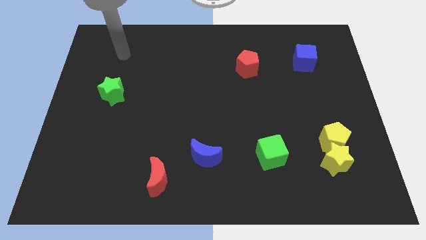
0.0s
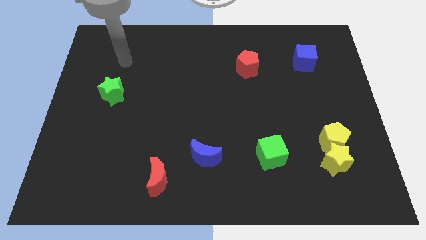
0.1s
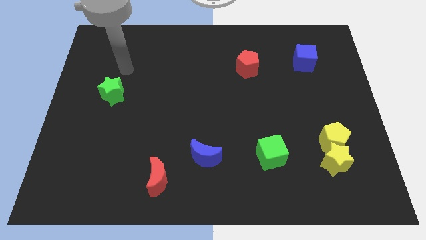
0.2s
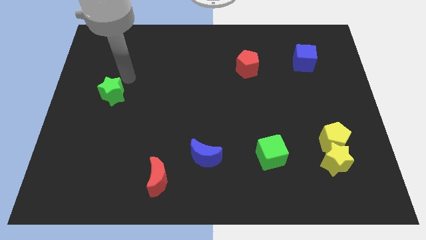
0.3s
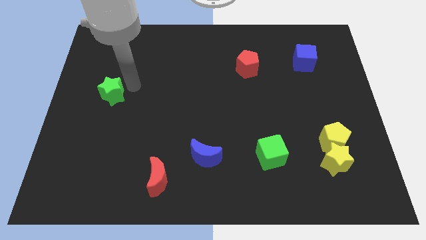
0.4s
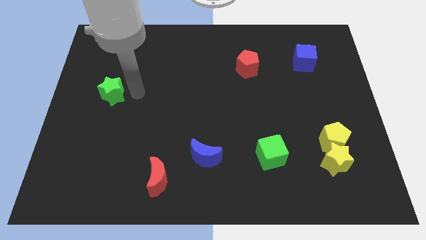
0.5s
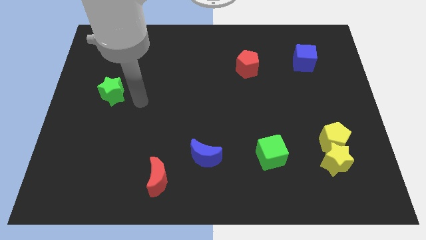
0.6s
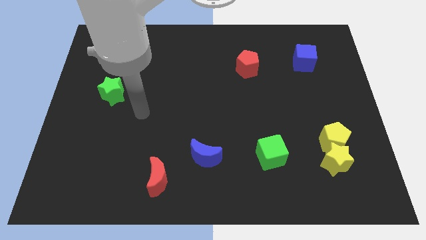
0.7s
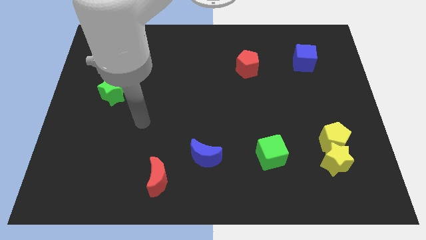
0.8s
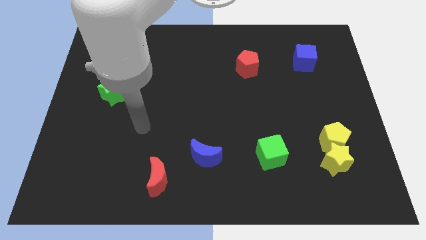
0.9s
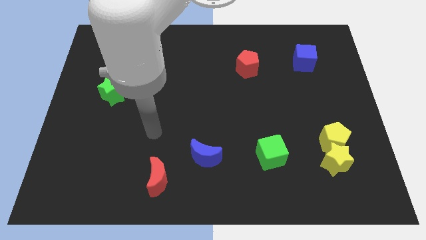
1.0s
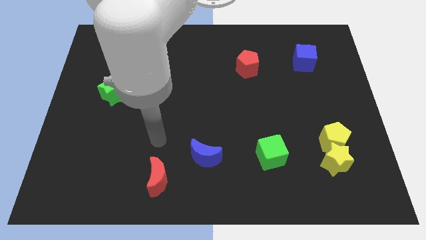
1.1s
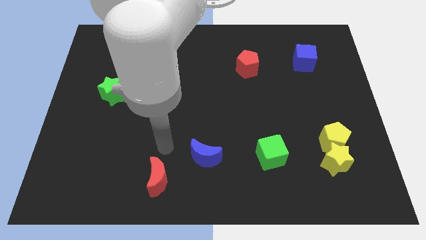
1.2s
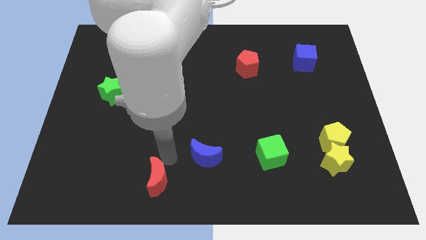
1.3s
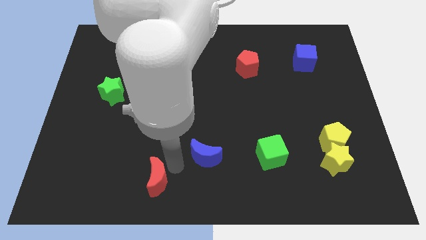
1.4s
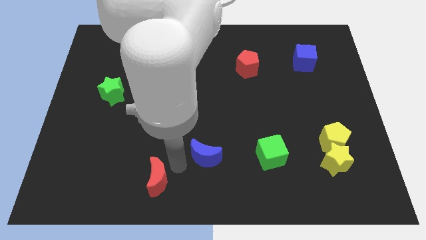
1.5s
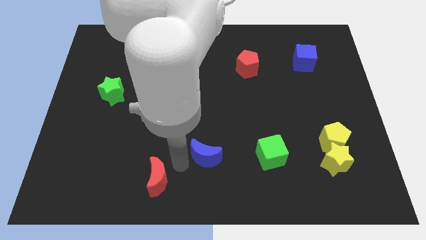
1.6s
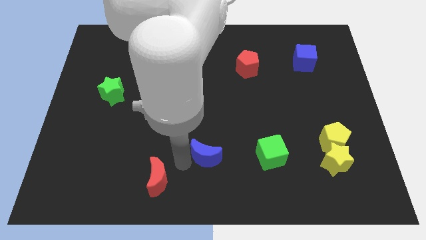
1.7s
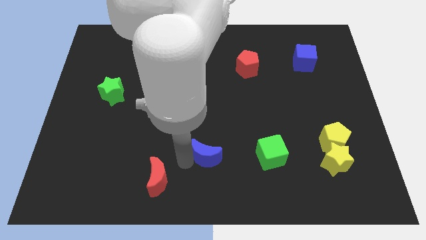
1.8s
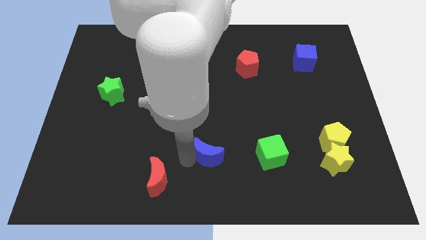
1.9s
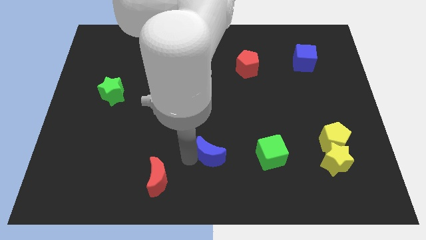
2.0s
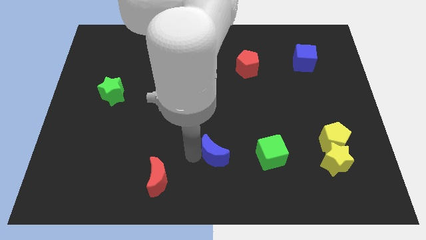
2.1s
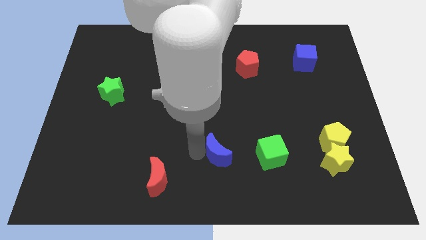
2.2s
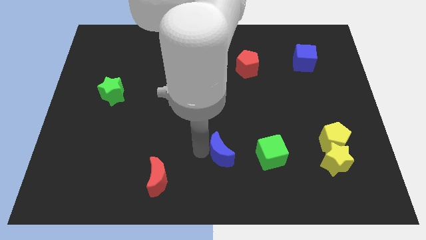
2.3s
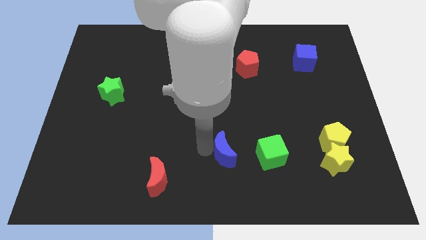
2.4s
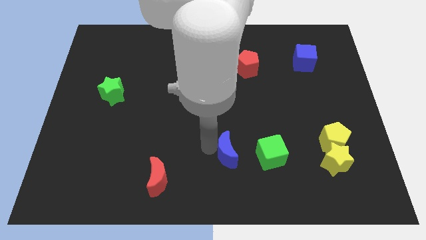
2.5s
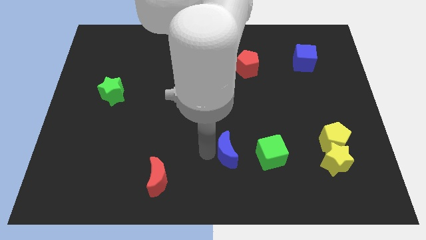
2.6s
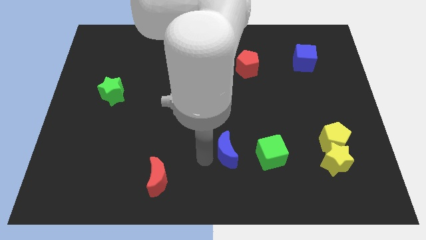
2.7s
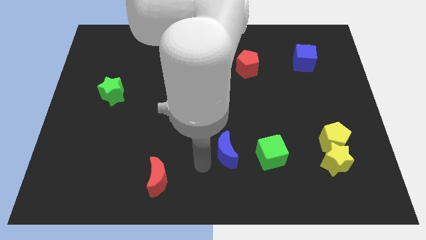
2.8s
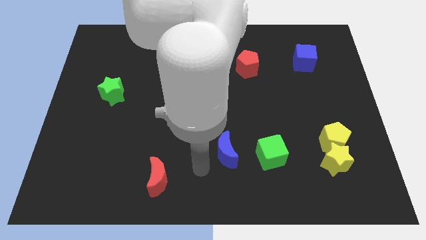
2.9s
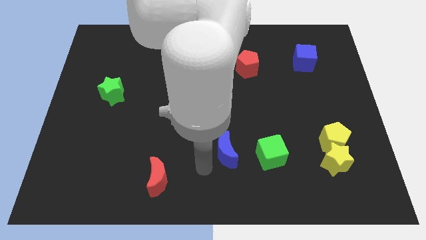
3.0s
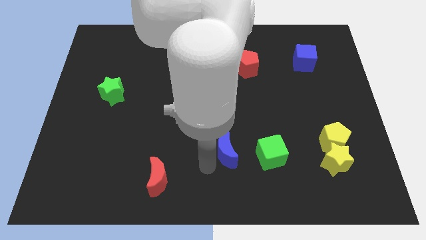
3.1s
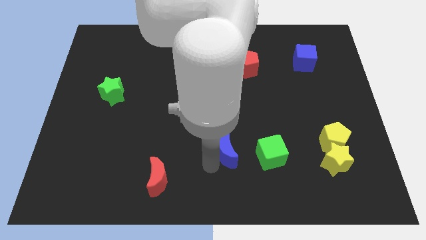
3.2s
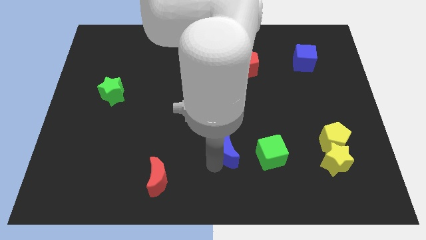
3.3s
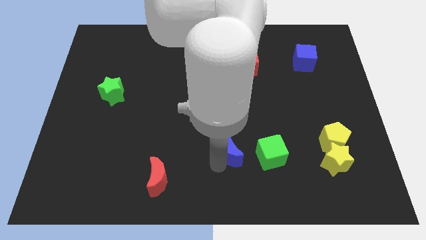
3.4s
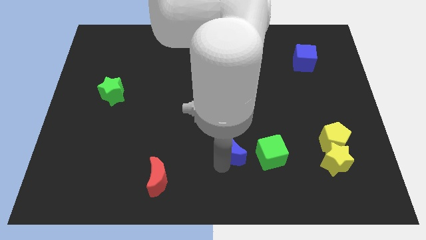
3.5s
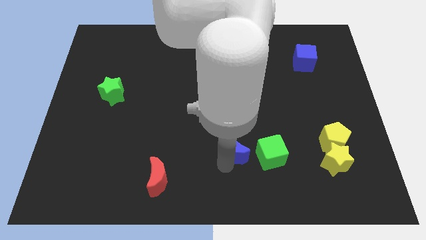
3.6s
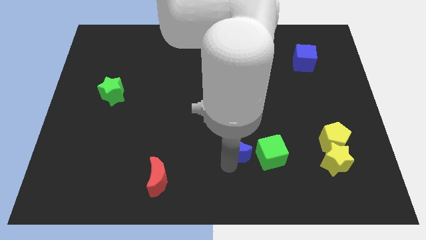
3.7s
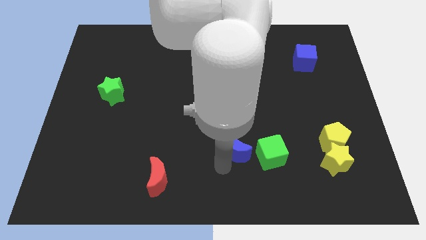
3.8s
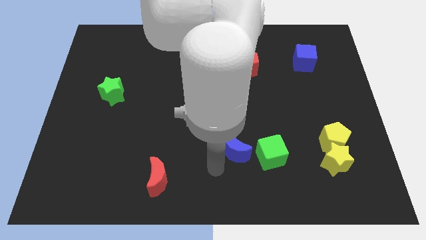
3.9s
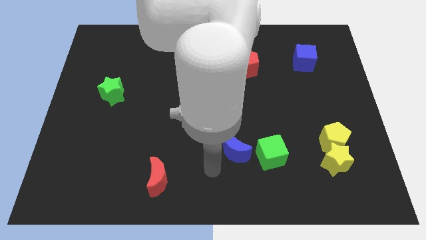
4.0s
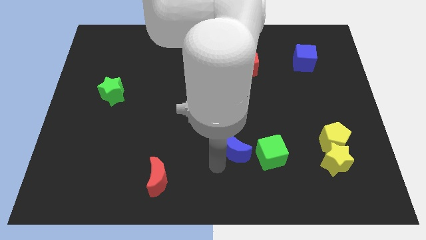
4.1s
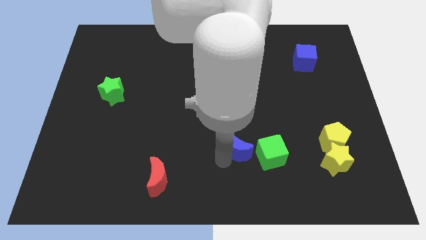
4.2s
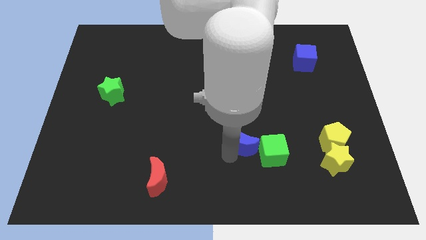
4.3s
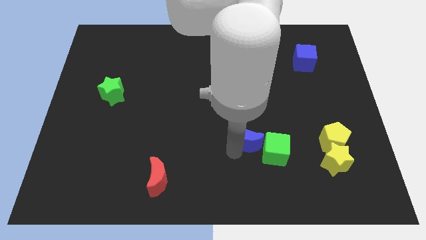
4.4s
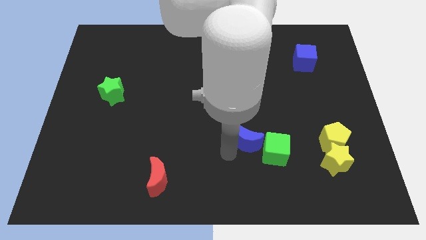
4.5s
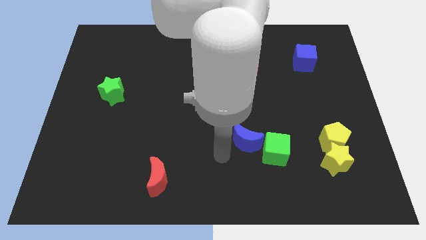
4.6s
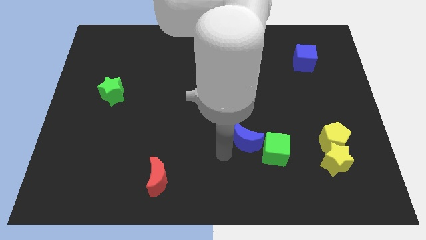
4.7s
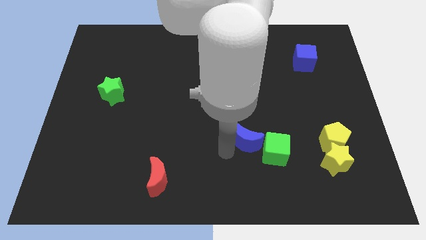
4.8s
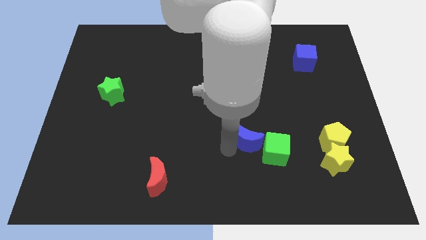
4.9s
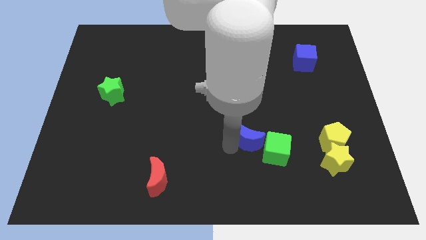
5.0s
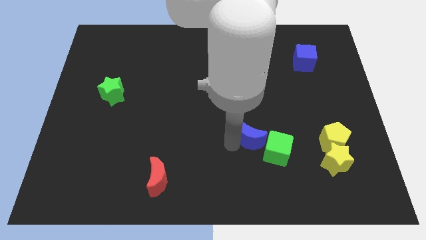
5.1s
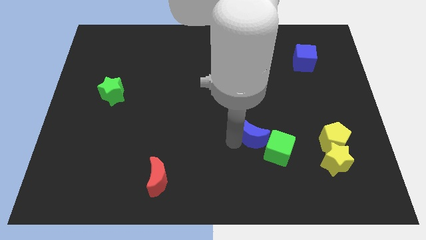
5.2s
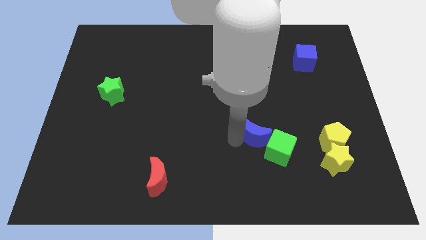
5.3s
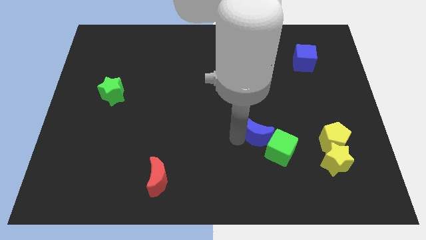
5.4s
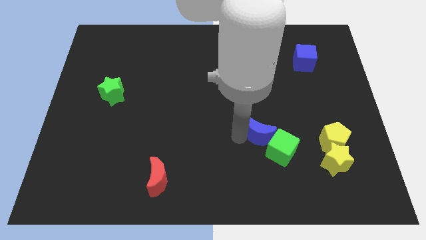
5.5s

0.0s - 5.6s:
push the blue moon to the left of the yellow pentagon

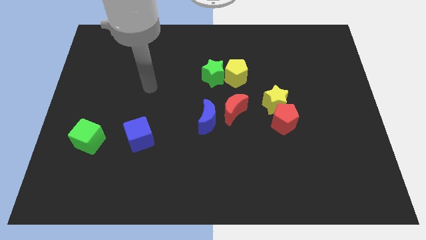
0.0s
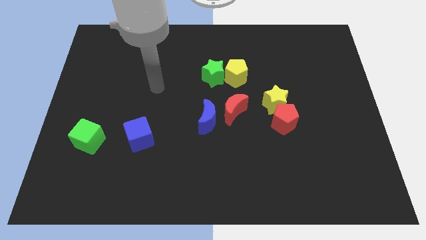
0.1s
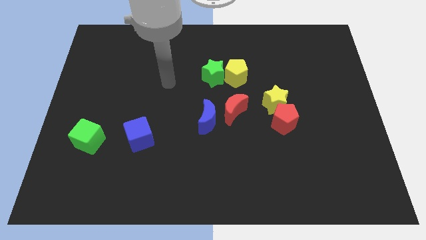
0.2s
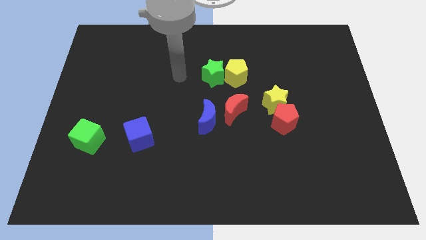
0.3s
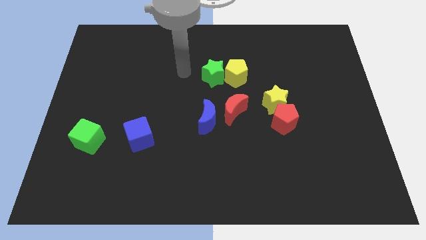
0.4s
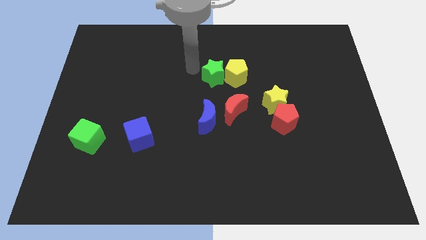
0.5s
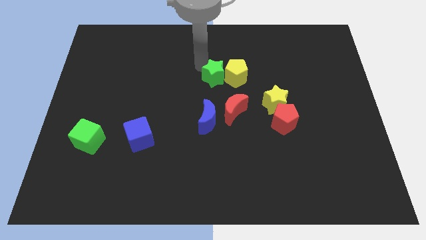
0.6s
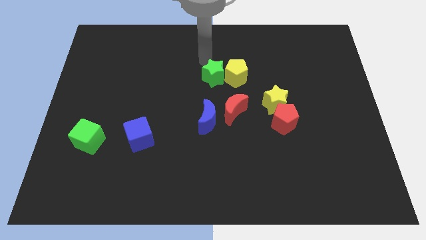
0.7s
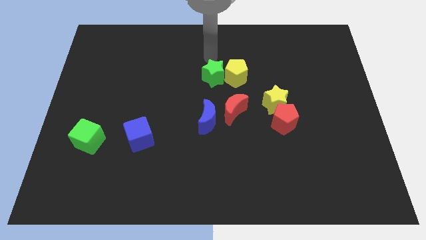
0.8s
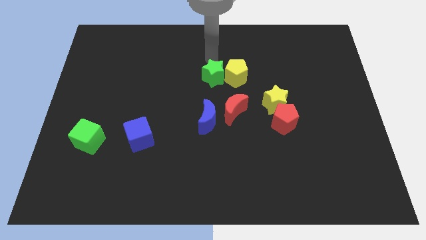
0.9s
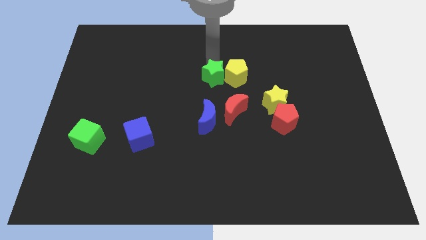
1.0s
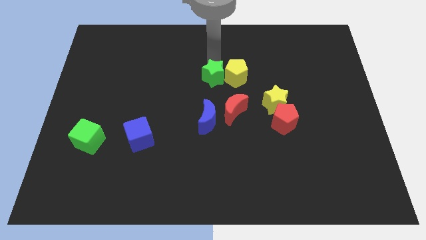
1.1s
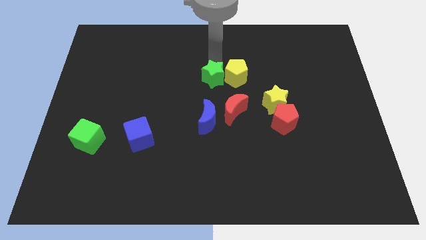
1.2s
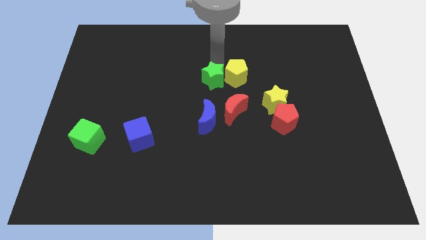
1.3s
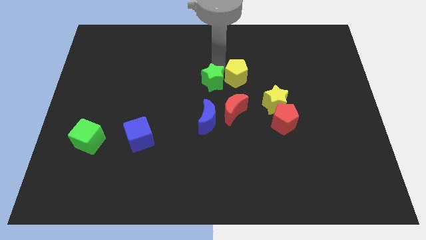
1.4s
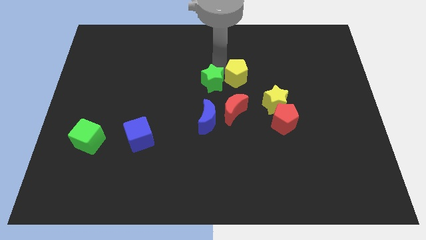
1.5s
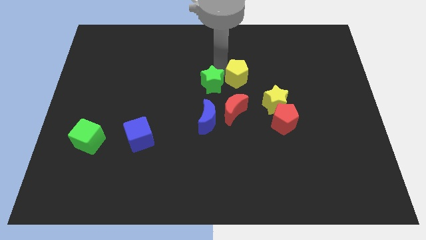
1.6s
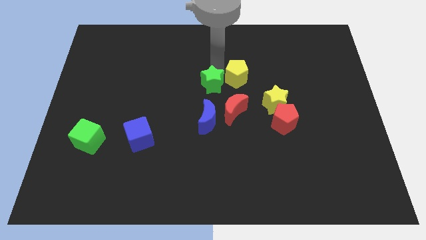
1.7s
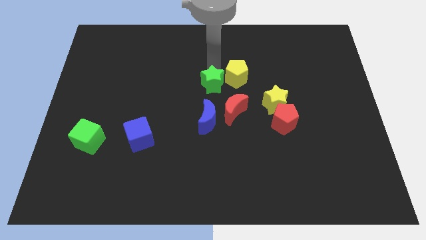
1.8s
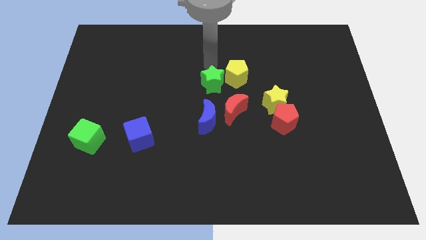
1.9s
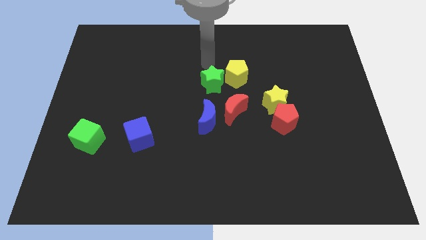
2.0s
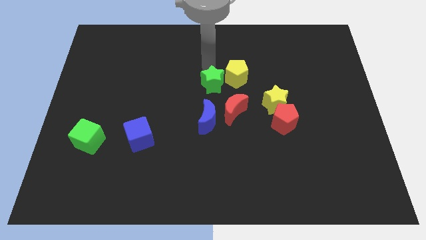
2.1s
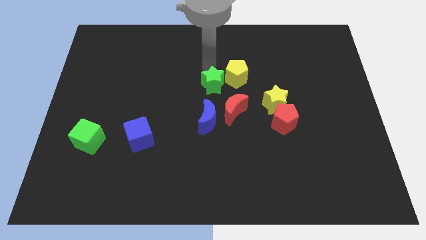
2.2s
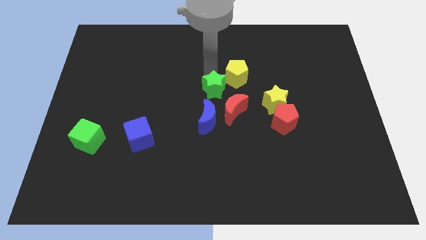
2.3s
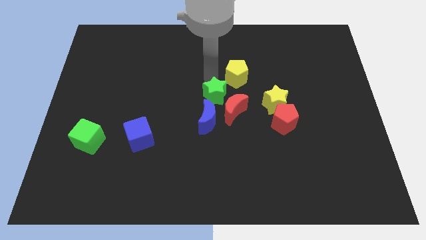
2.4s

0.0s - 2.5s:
slide the green star to the left of the yellow star
